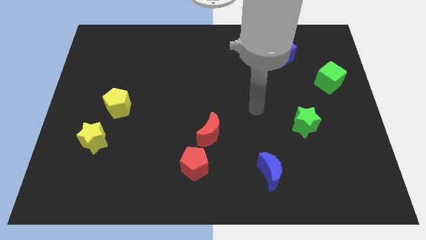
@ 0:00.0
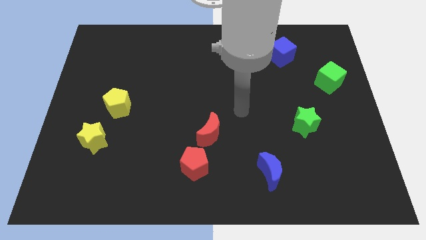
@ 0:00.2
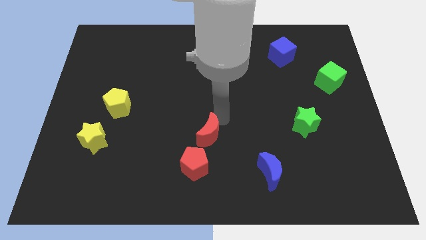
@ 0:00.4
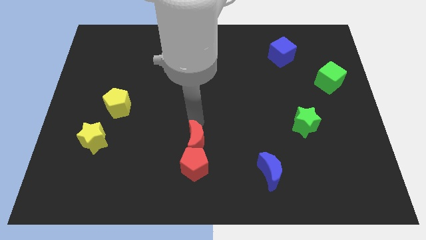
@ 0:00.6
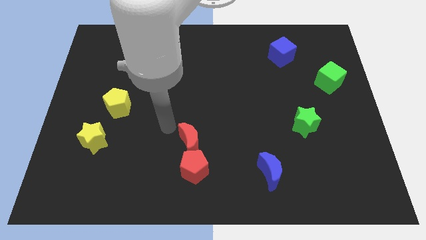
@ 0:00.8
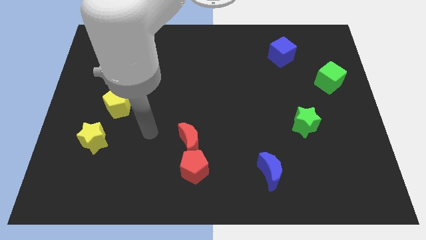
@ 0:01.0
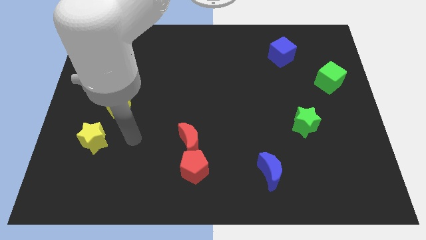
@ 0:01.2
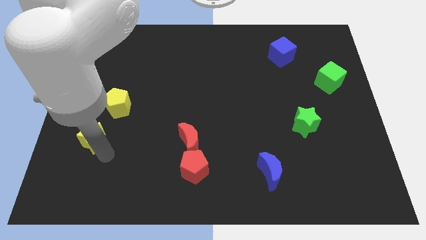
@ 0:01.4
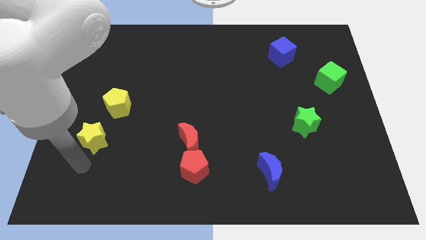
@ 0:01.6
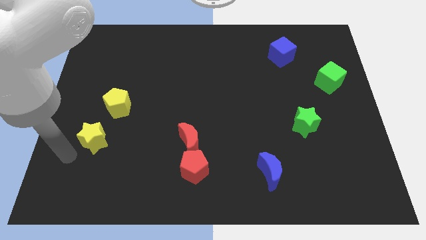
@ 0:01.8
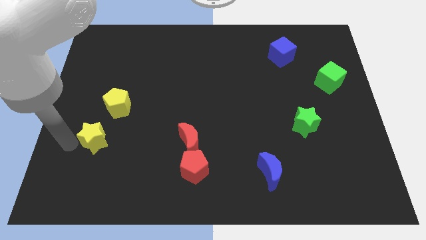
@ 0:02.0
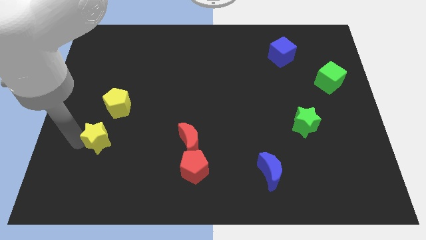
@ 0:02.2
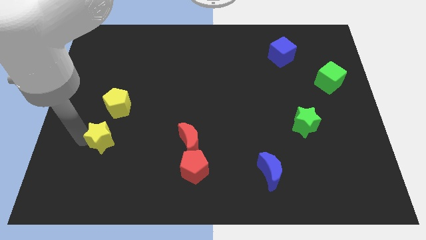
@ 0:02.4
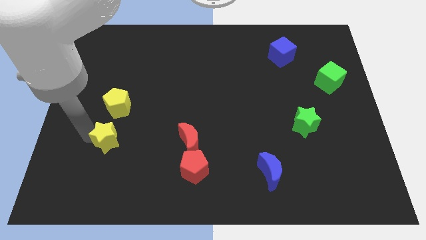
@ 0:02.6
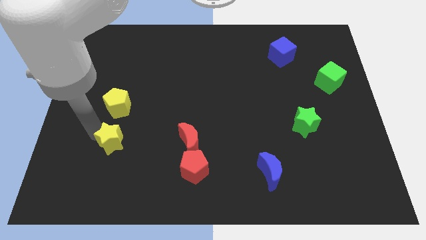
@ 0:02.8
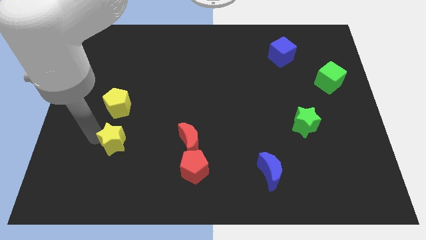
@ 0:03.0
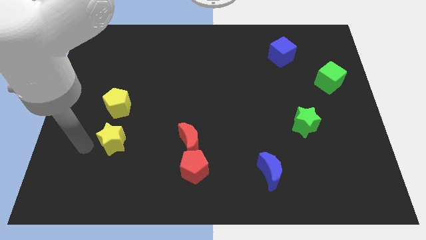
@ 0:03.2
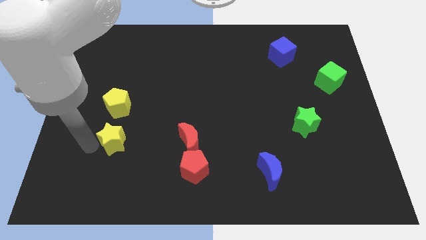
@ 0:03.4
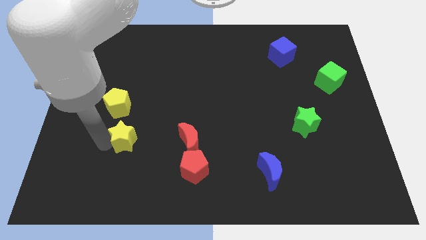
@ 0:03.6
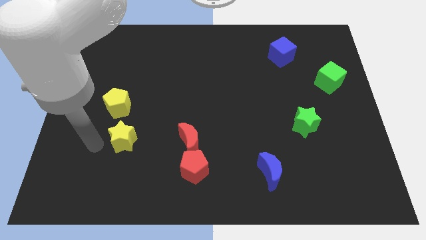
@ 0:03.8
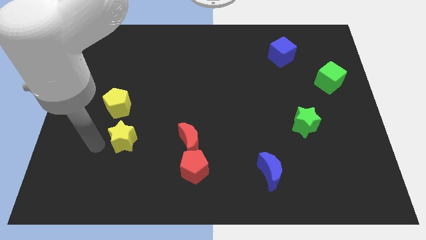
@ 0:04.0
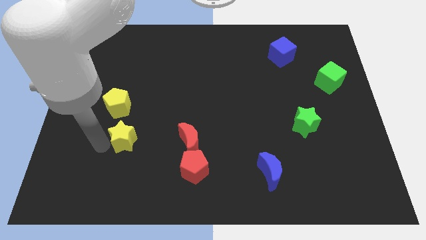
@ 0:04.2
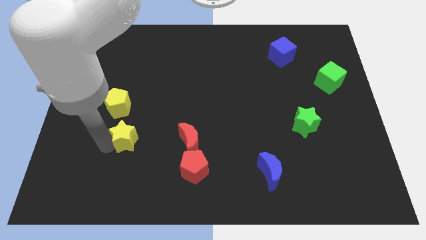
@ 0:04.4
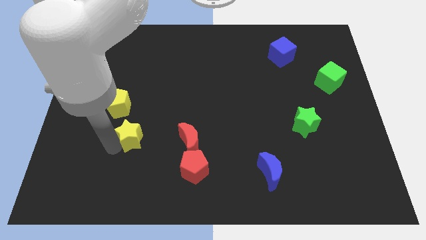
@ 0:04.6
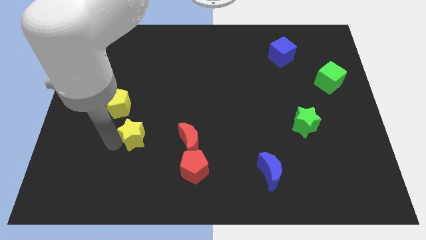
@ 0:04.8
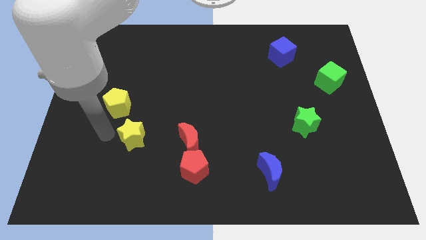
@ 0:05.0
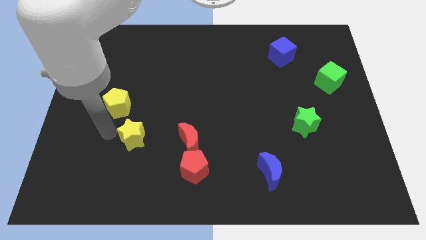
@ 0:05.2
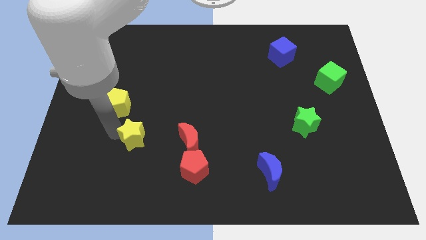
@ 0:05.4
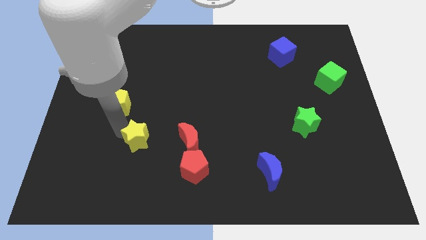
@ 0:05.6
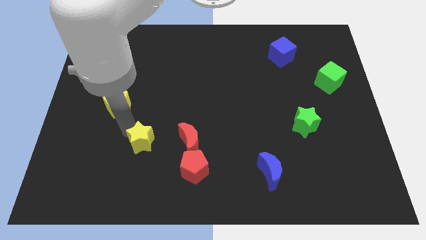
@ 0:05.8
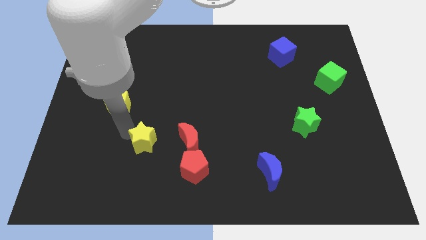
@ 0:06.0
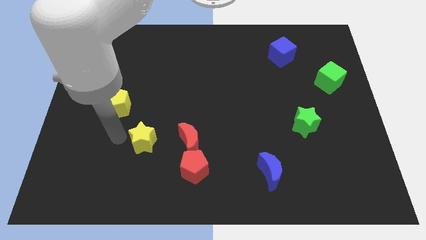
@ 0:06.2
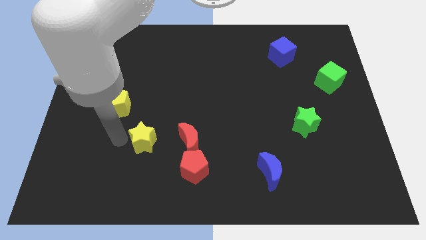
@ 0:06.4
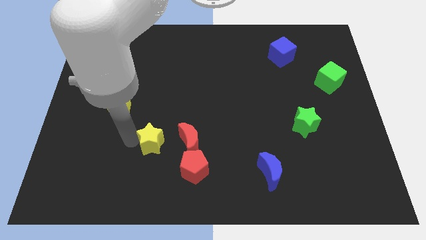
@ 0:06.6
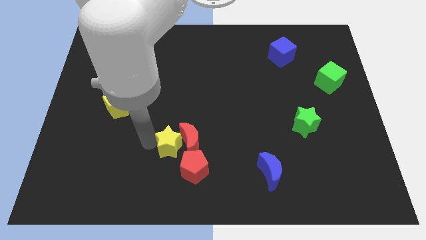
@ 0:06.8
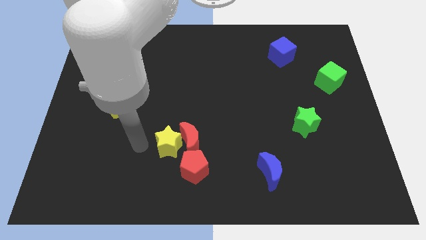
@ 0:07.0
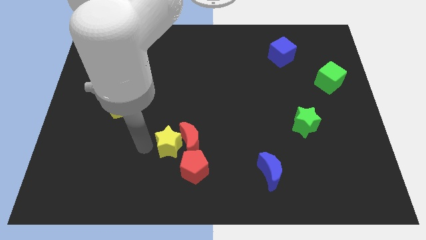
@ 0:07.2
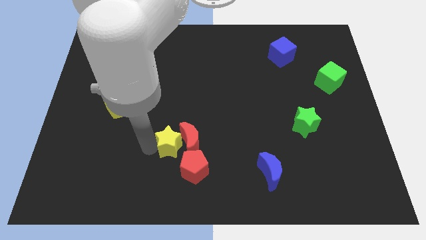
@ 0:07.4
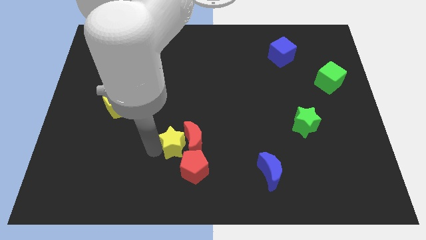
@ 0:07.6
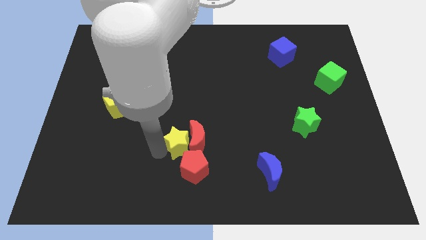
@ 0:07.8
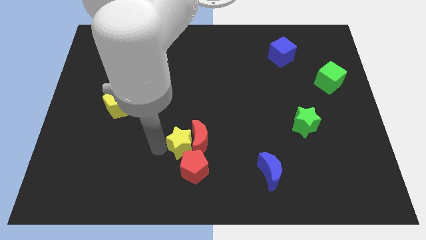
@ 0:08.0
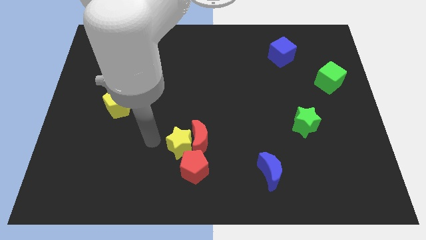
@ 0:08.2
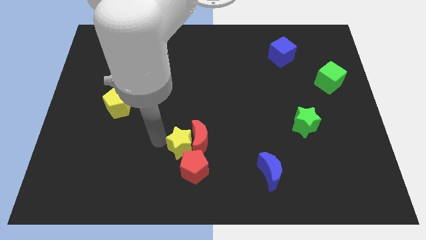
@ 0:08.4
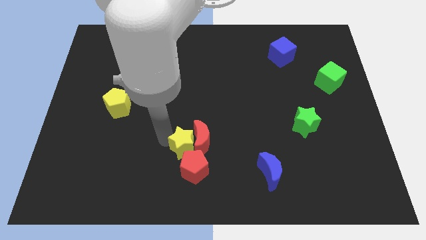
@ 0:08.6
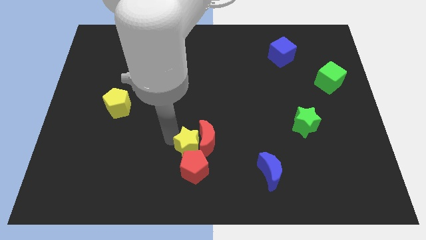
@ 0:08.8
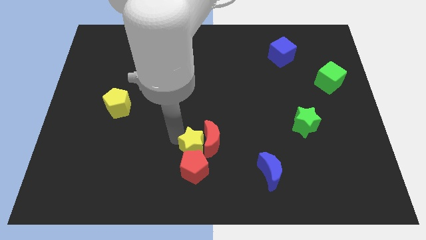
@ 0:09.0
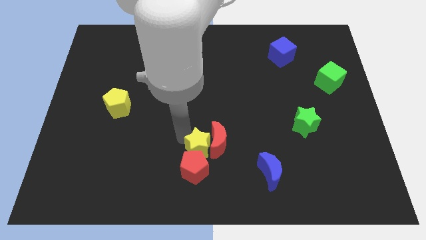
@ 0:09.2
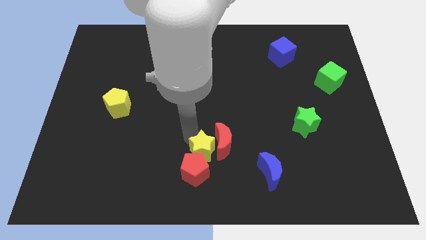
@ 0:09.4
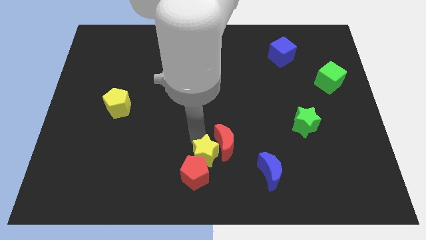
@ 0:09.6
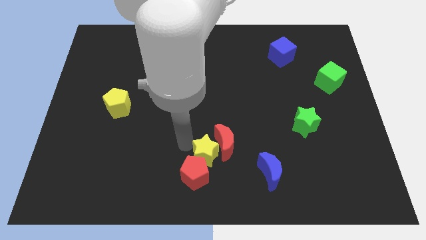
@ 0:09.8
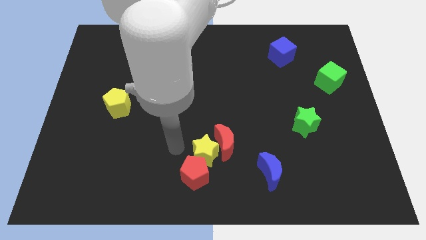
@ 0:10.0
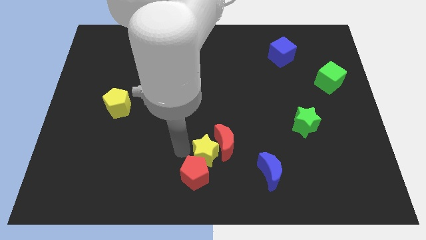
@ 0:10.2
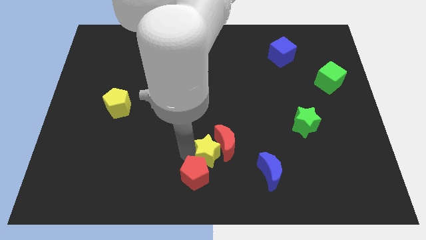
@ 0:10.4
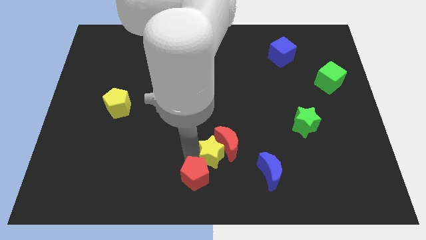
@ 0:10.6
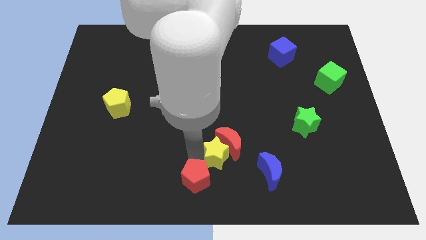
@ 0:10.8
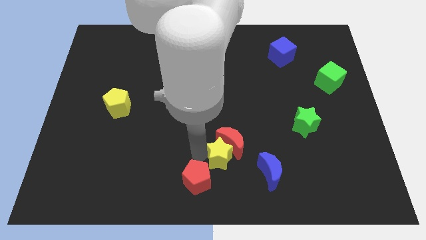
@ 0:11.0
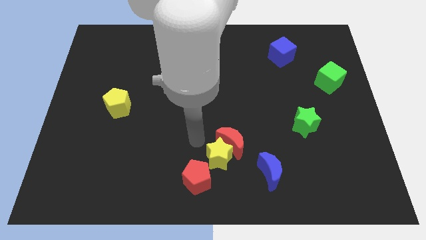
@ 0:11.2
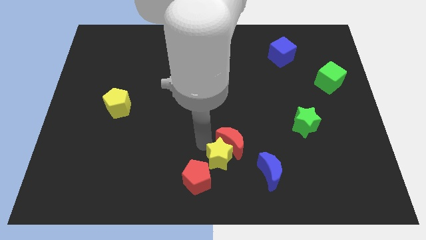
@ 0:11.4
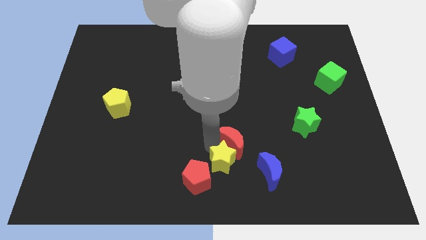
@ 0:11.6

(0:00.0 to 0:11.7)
push the yellow star just right of the red pentagon
